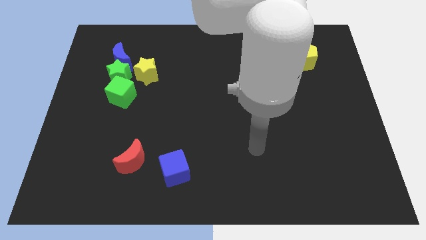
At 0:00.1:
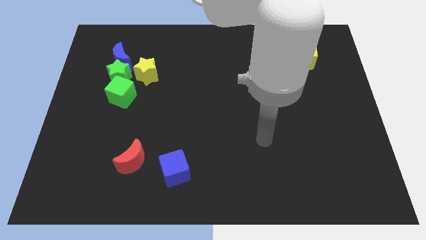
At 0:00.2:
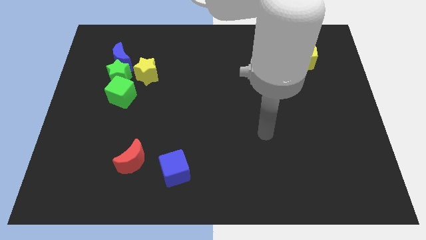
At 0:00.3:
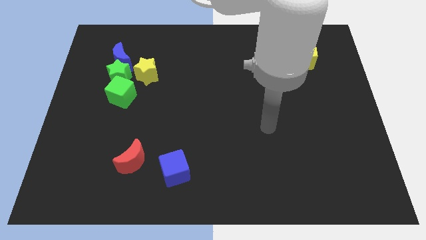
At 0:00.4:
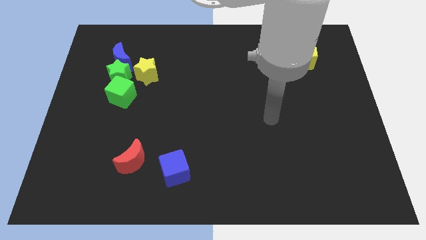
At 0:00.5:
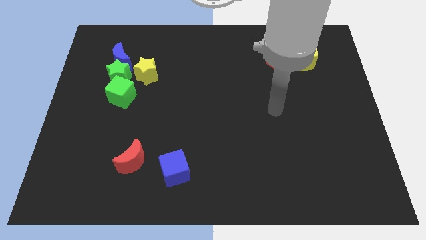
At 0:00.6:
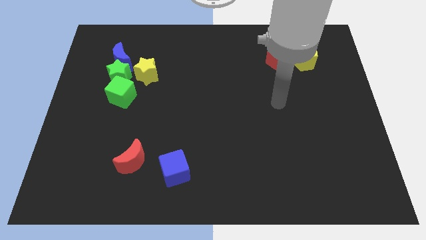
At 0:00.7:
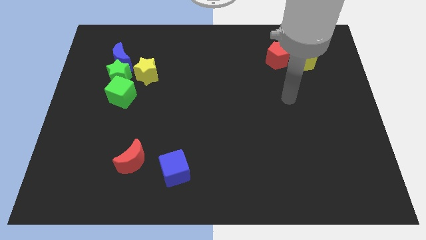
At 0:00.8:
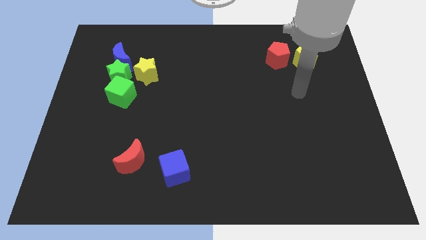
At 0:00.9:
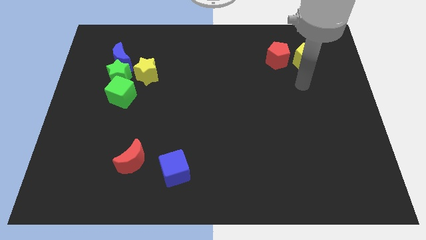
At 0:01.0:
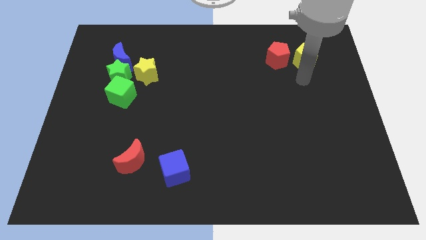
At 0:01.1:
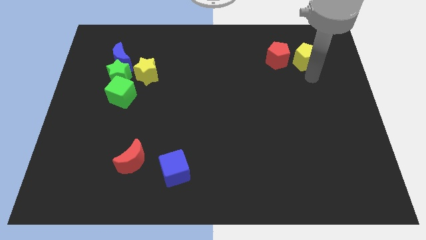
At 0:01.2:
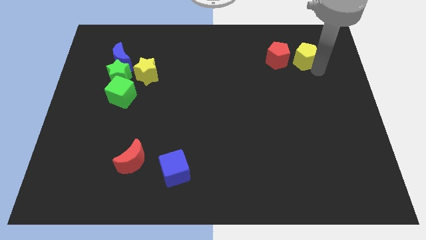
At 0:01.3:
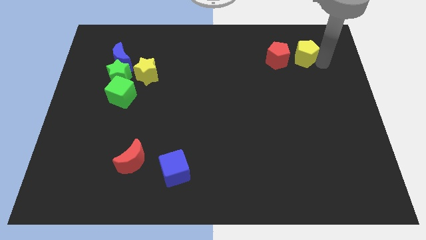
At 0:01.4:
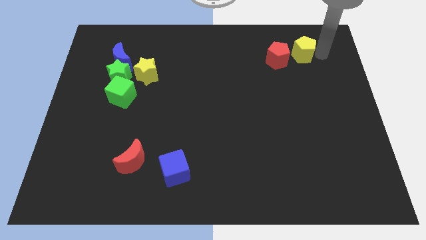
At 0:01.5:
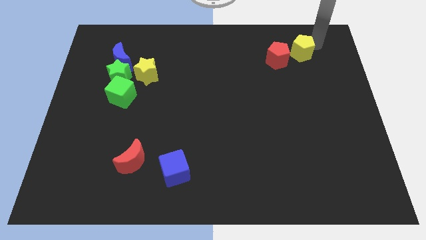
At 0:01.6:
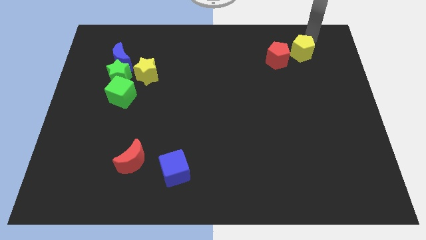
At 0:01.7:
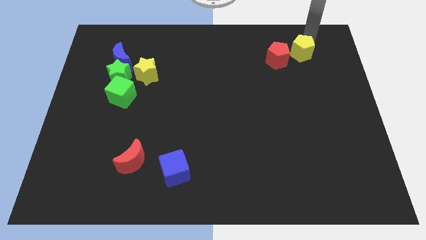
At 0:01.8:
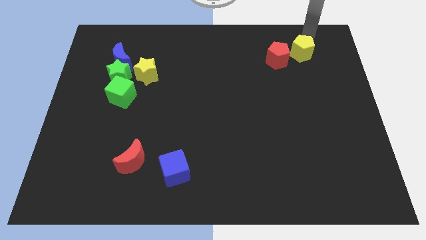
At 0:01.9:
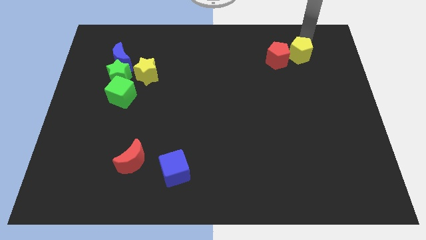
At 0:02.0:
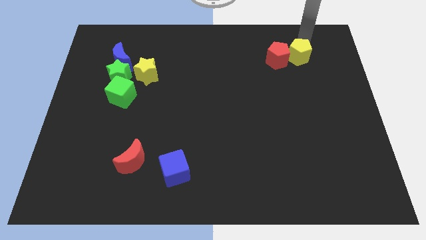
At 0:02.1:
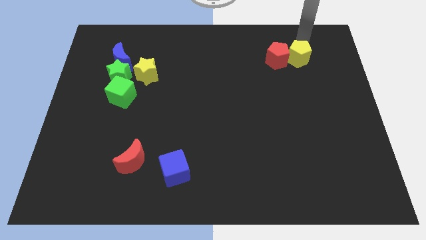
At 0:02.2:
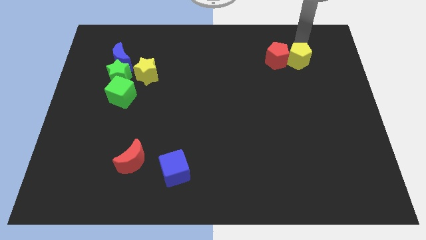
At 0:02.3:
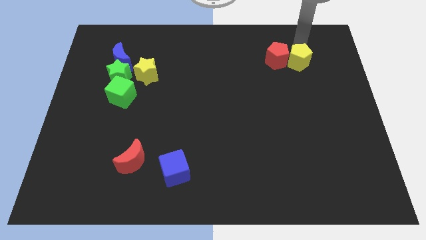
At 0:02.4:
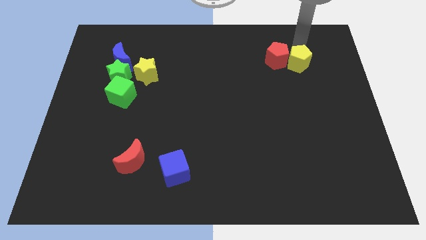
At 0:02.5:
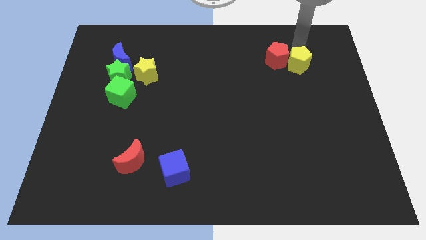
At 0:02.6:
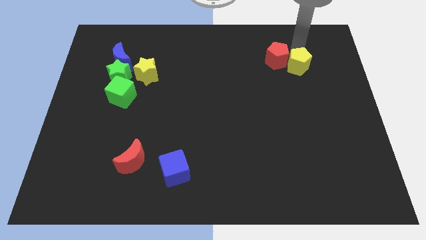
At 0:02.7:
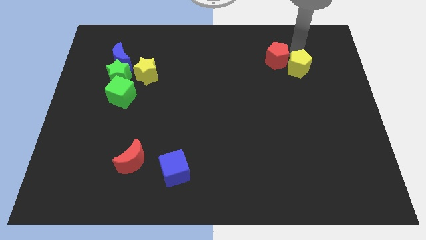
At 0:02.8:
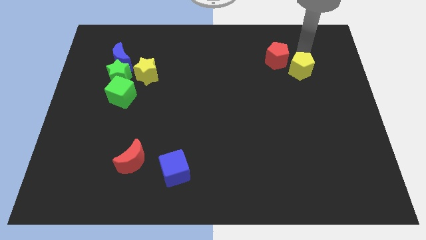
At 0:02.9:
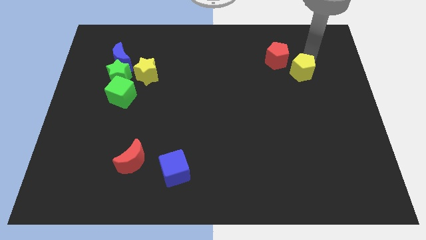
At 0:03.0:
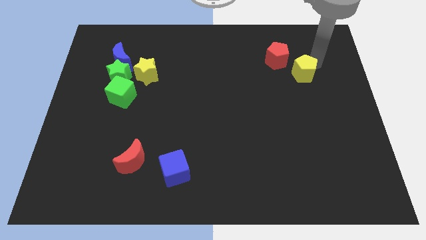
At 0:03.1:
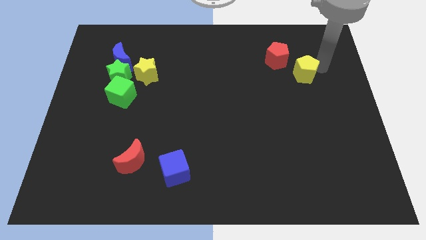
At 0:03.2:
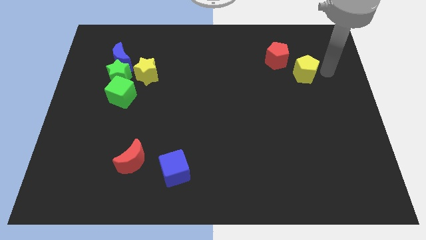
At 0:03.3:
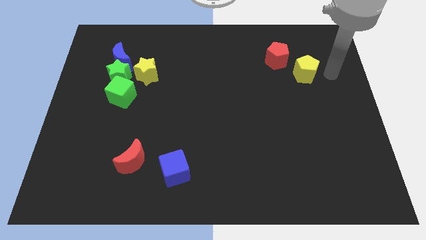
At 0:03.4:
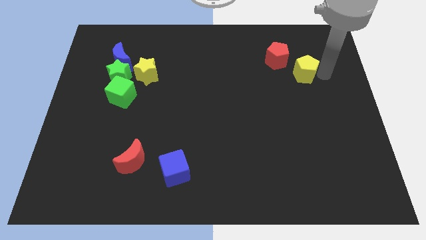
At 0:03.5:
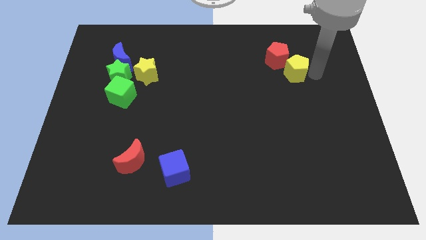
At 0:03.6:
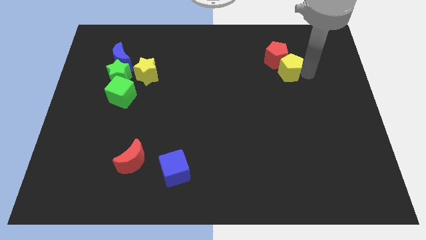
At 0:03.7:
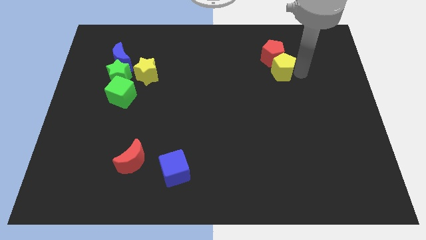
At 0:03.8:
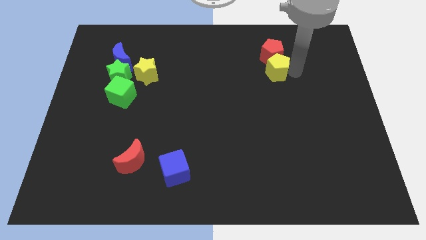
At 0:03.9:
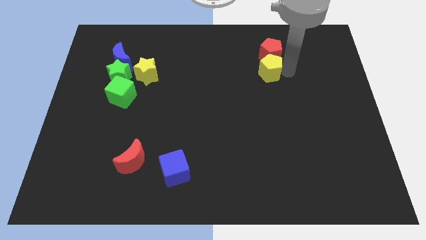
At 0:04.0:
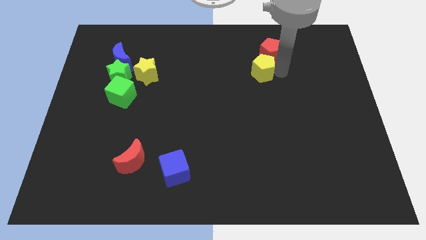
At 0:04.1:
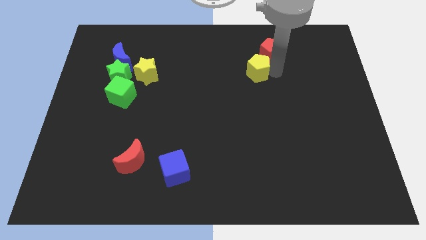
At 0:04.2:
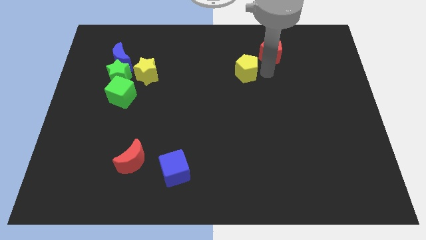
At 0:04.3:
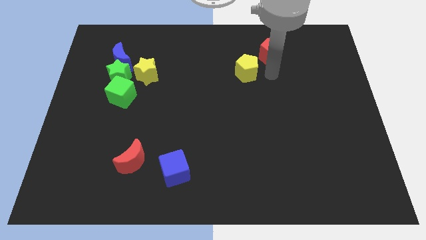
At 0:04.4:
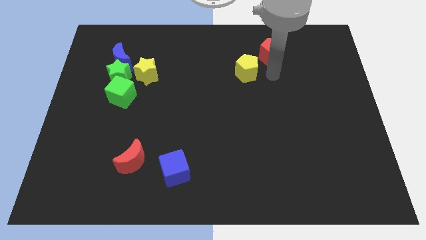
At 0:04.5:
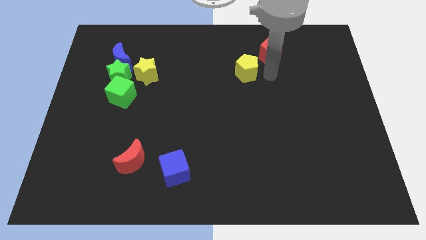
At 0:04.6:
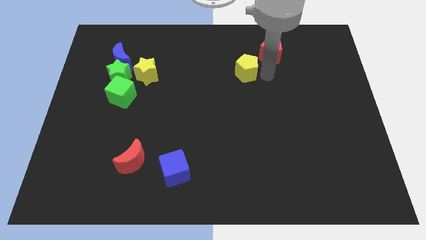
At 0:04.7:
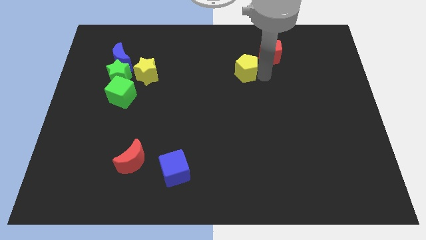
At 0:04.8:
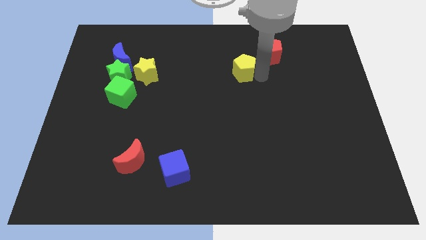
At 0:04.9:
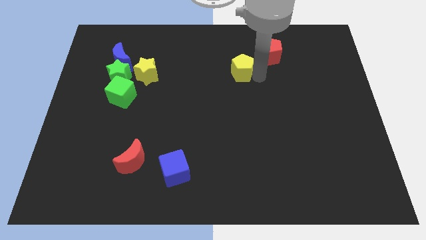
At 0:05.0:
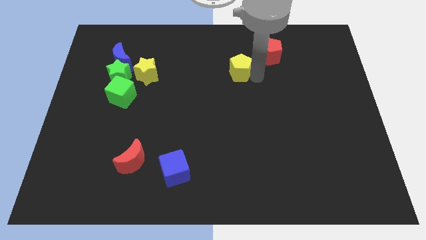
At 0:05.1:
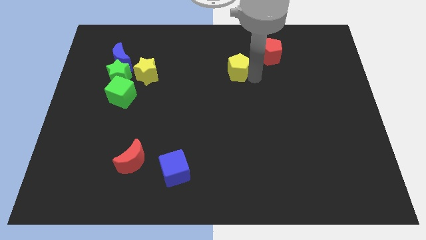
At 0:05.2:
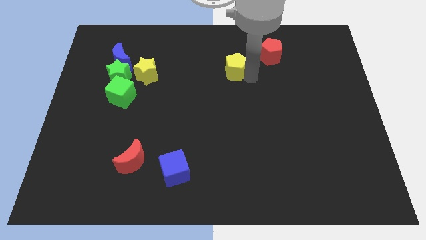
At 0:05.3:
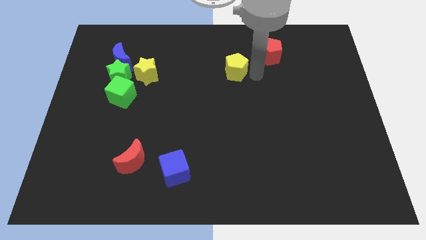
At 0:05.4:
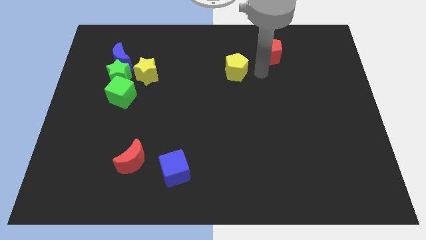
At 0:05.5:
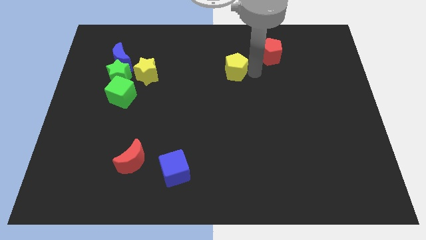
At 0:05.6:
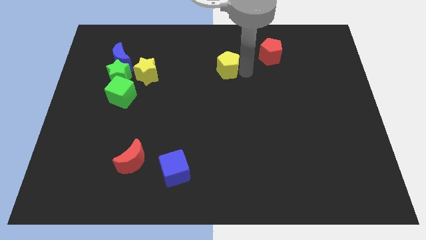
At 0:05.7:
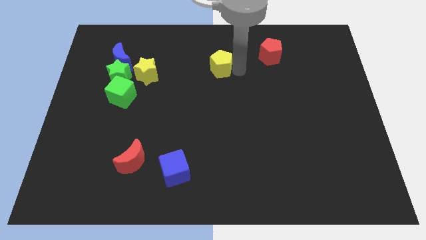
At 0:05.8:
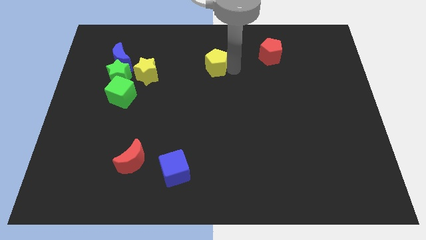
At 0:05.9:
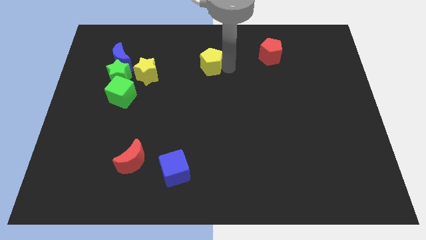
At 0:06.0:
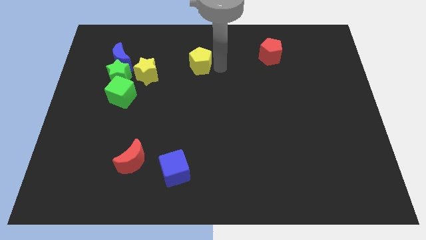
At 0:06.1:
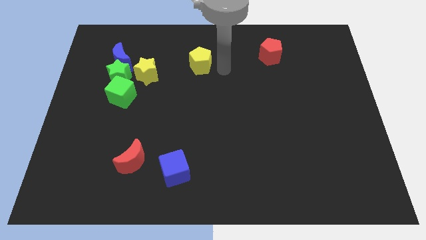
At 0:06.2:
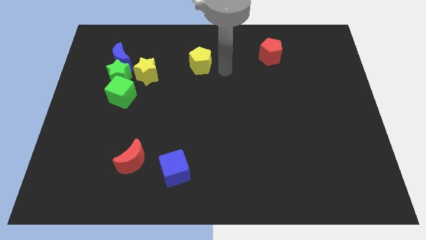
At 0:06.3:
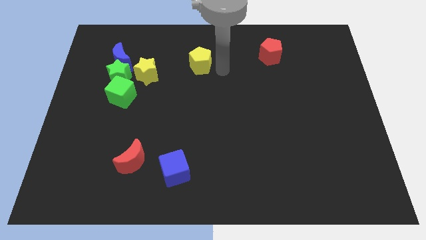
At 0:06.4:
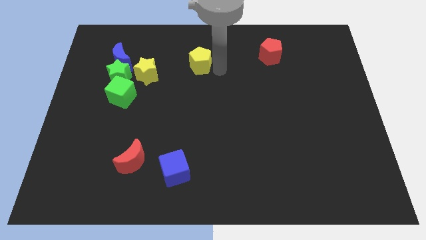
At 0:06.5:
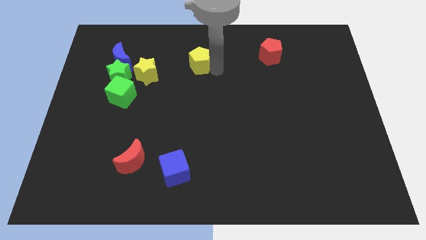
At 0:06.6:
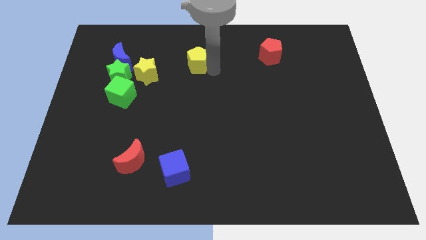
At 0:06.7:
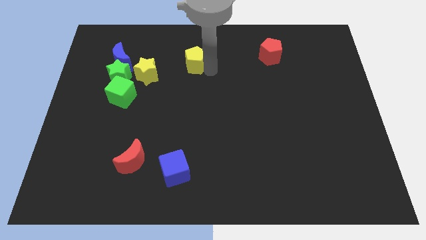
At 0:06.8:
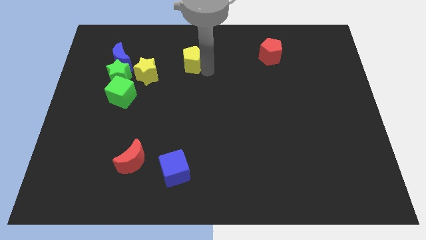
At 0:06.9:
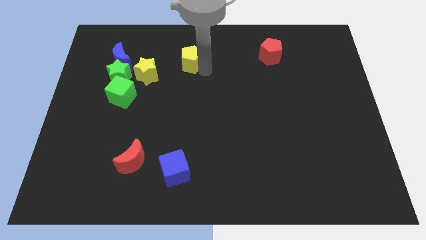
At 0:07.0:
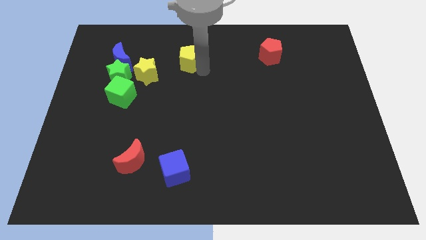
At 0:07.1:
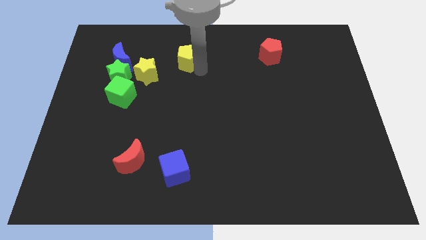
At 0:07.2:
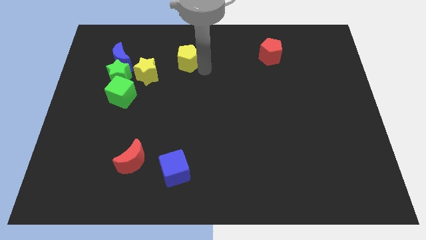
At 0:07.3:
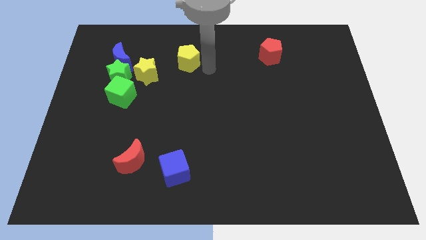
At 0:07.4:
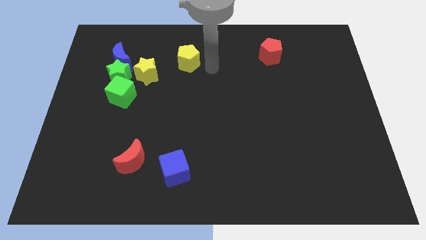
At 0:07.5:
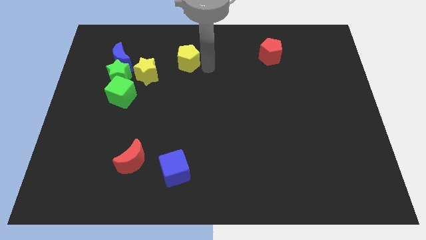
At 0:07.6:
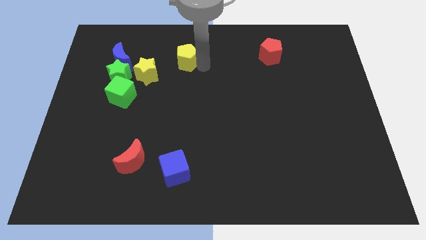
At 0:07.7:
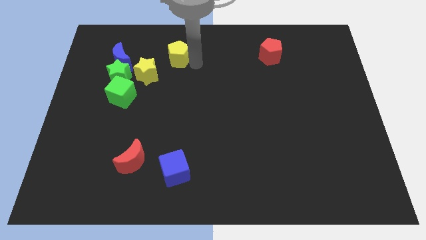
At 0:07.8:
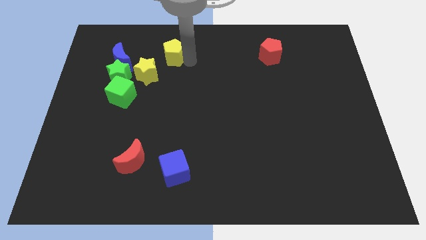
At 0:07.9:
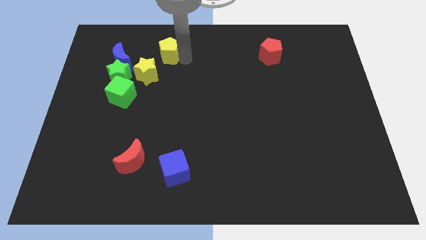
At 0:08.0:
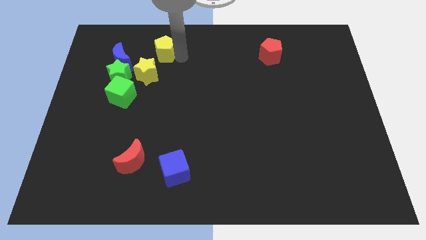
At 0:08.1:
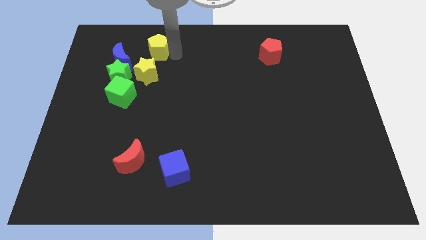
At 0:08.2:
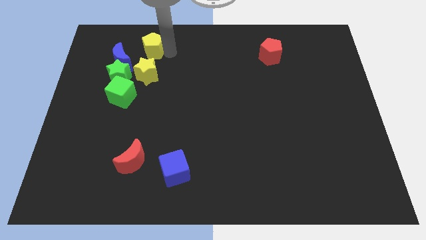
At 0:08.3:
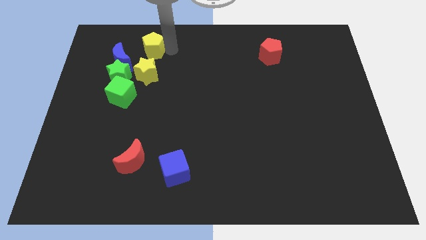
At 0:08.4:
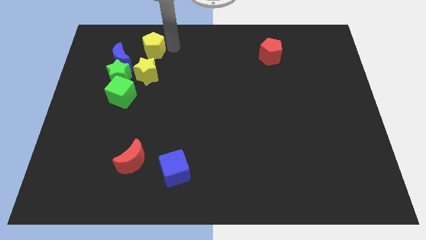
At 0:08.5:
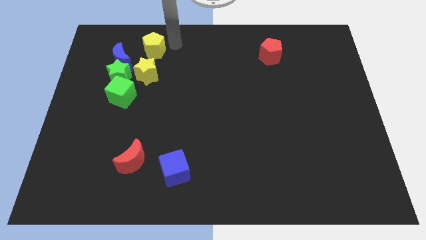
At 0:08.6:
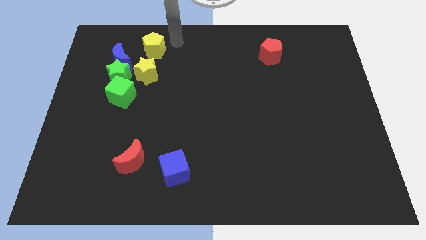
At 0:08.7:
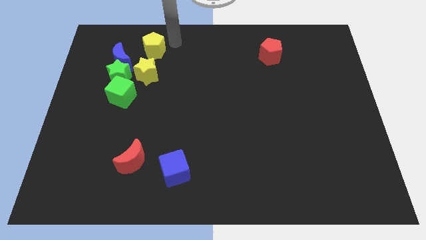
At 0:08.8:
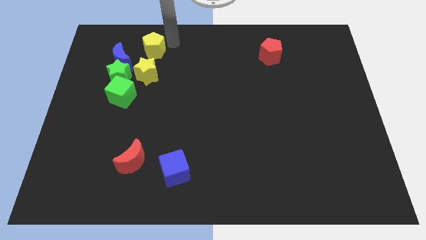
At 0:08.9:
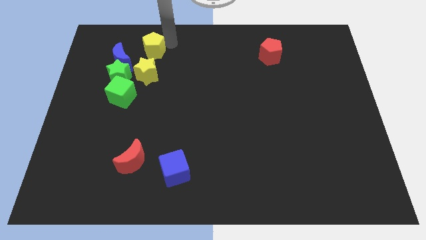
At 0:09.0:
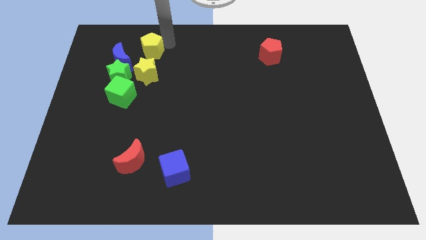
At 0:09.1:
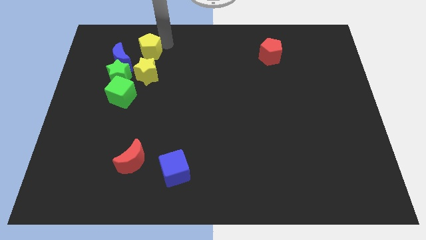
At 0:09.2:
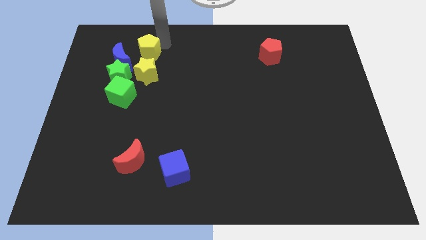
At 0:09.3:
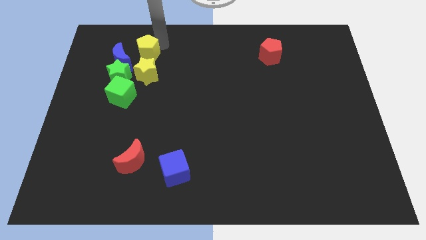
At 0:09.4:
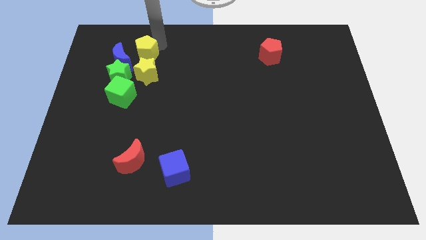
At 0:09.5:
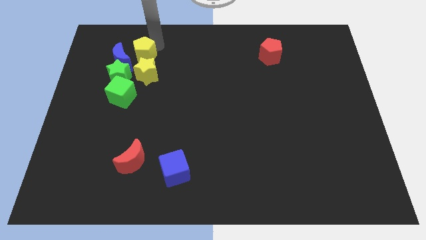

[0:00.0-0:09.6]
slide the yellow pentagon next to the blue moon
